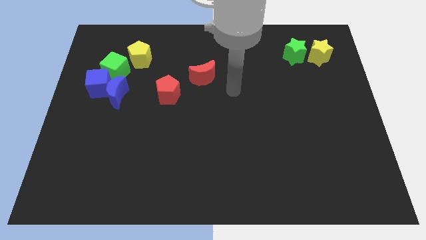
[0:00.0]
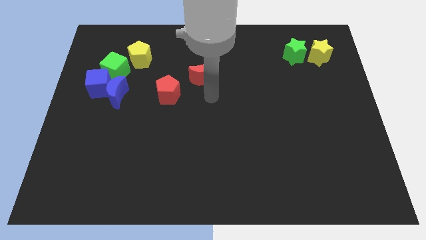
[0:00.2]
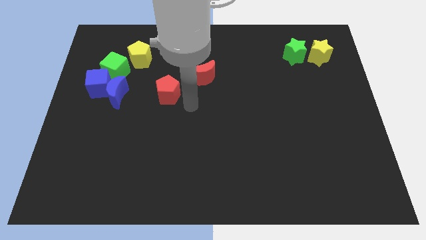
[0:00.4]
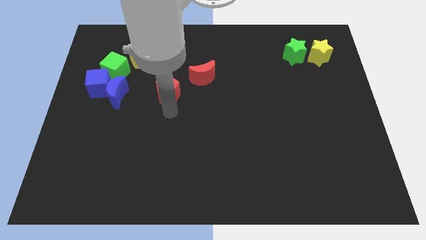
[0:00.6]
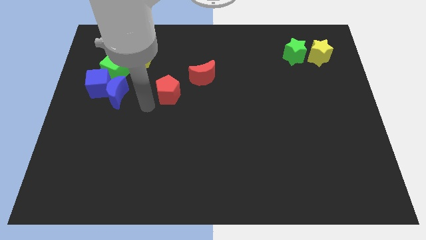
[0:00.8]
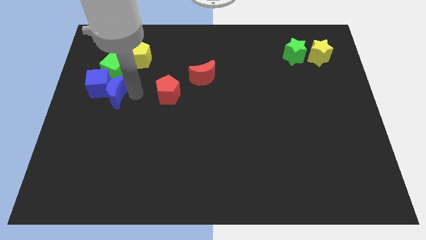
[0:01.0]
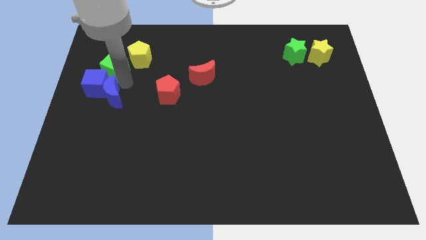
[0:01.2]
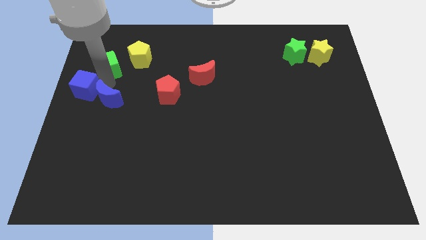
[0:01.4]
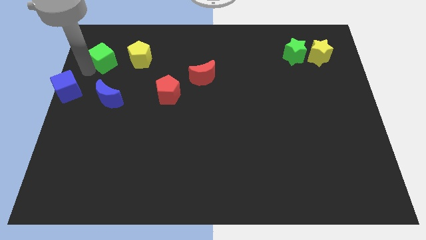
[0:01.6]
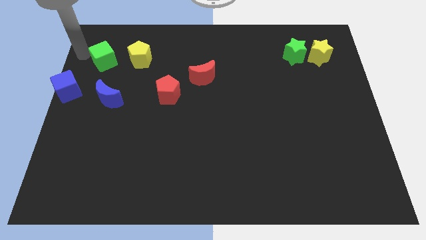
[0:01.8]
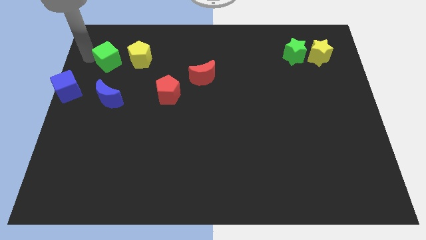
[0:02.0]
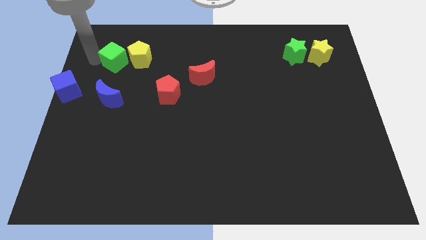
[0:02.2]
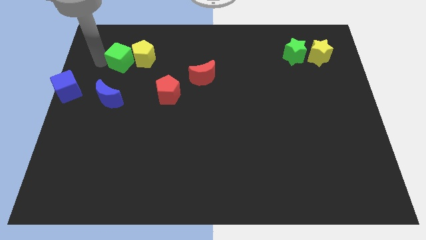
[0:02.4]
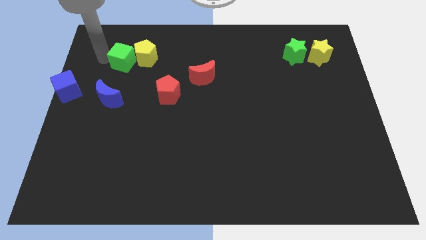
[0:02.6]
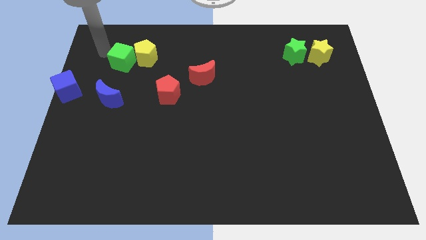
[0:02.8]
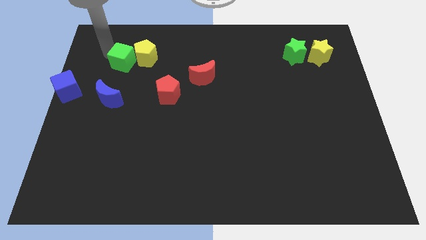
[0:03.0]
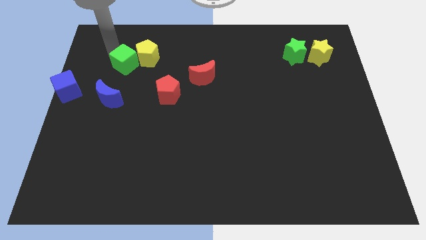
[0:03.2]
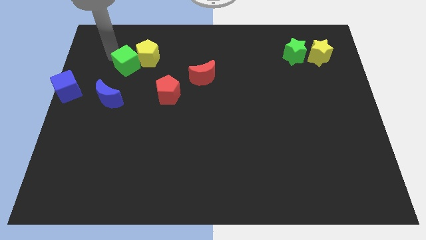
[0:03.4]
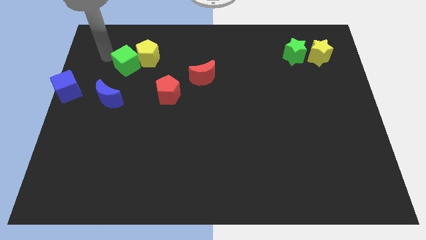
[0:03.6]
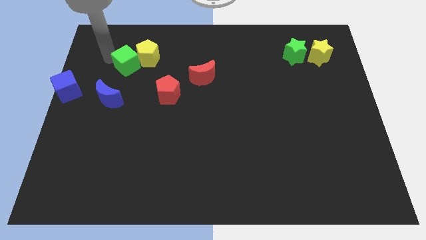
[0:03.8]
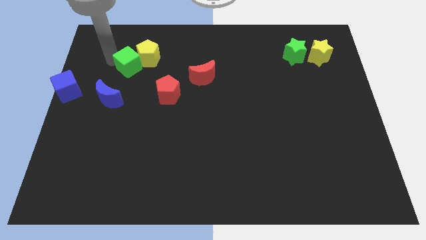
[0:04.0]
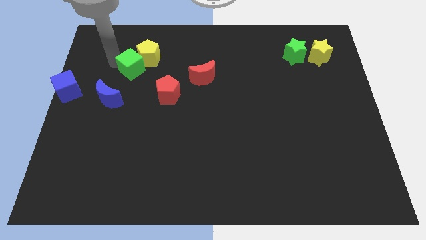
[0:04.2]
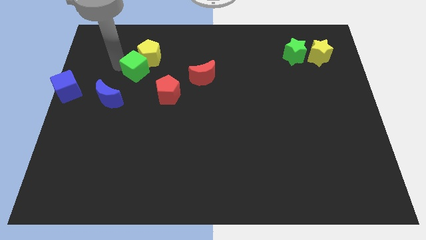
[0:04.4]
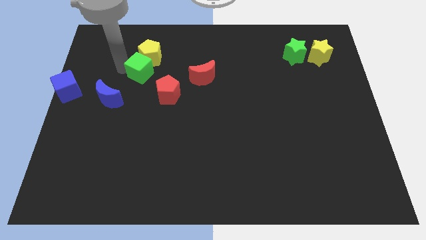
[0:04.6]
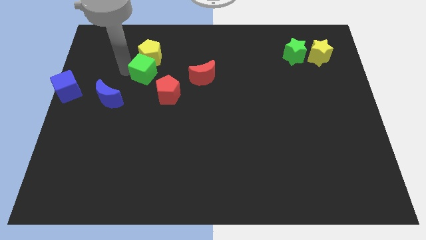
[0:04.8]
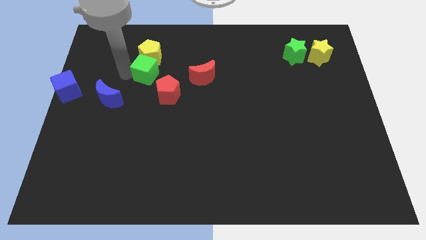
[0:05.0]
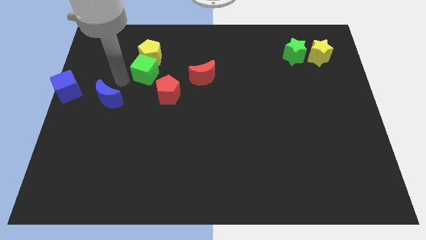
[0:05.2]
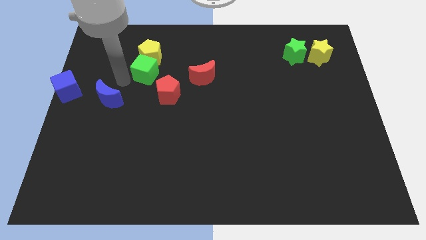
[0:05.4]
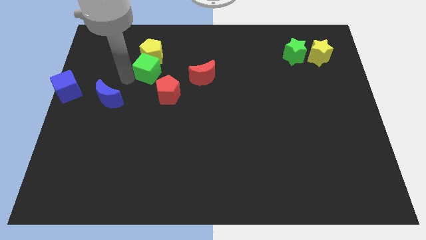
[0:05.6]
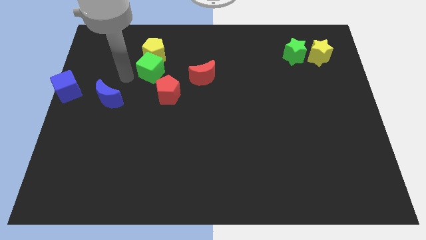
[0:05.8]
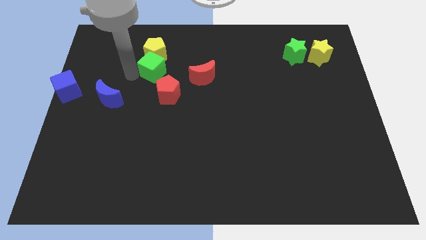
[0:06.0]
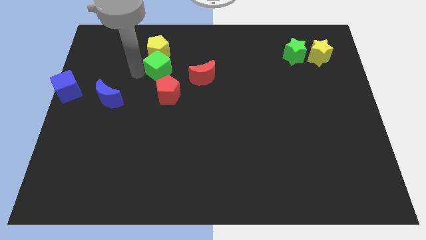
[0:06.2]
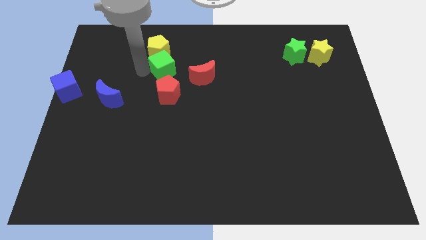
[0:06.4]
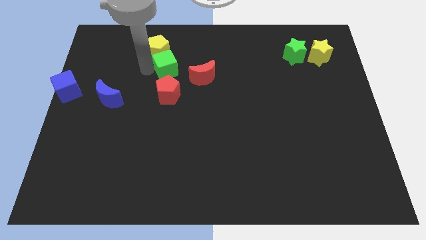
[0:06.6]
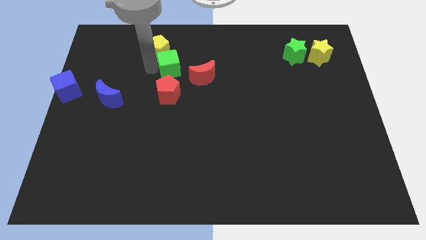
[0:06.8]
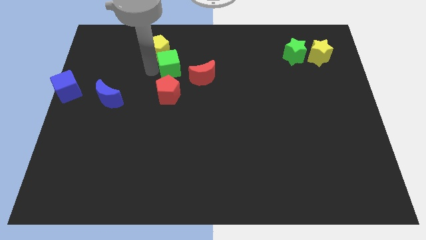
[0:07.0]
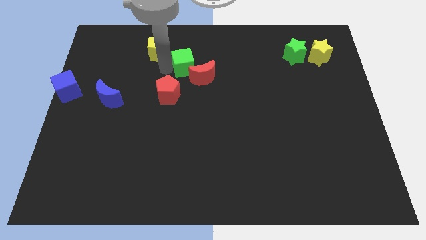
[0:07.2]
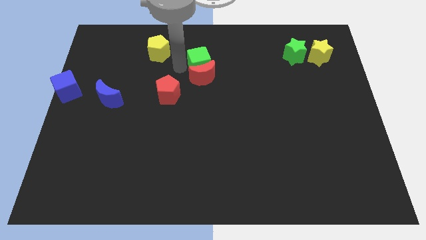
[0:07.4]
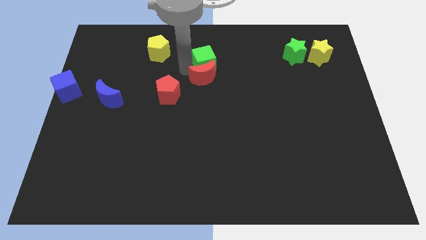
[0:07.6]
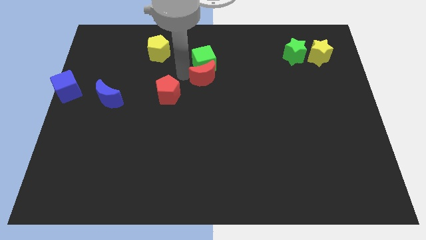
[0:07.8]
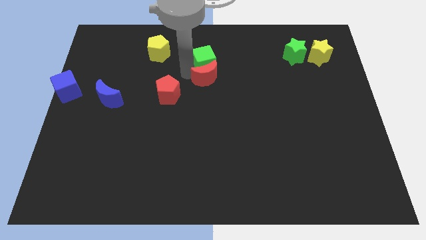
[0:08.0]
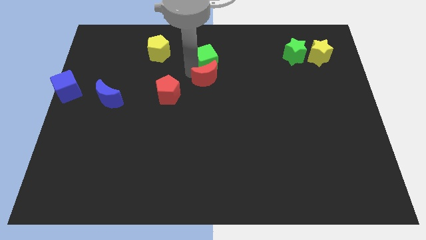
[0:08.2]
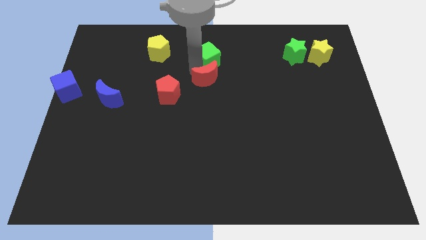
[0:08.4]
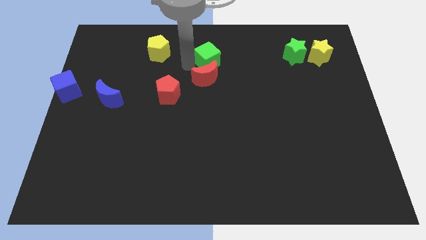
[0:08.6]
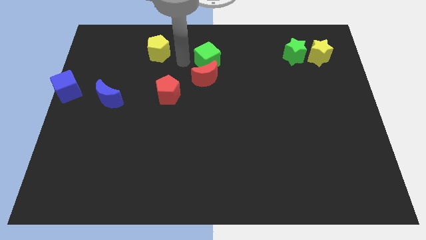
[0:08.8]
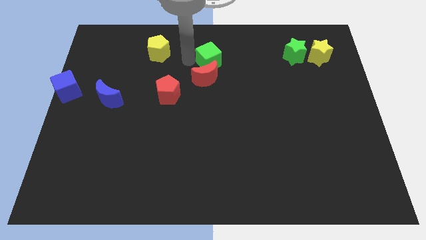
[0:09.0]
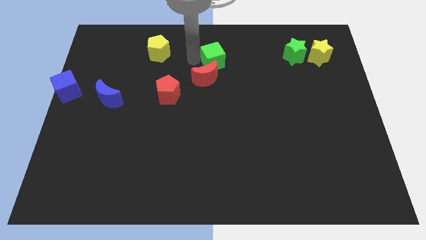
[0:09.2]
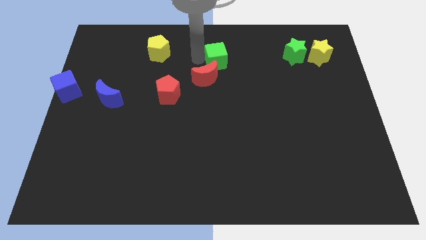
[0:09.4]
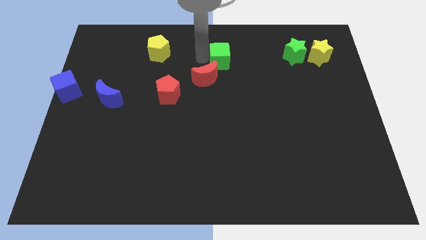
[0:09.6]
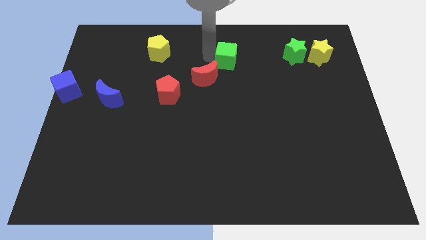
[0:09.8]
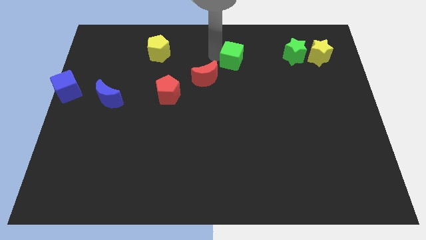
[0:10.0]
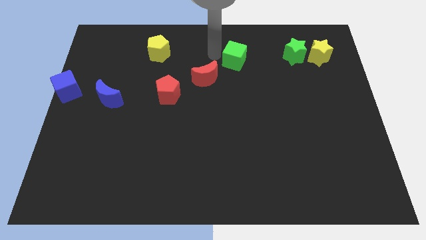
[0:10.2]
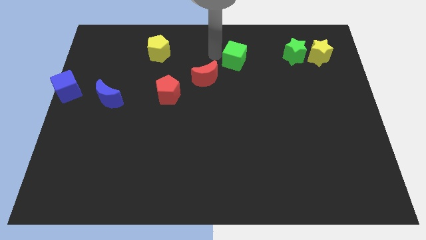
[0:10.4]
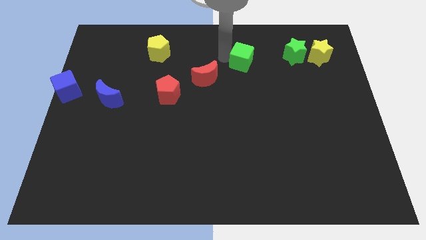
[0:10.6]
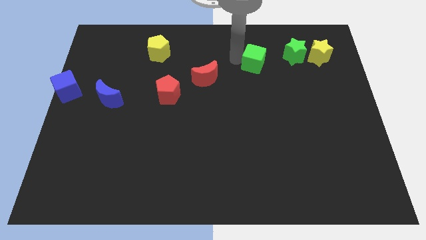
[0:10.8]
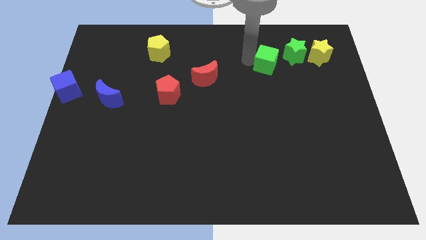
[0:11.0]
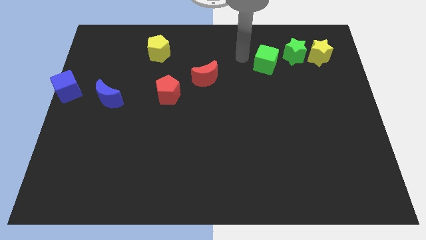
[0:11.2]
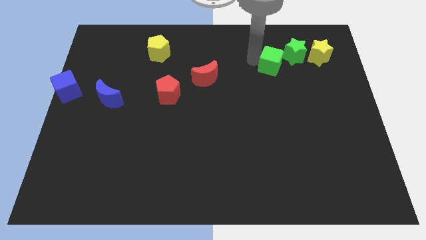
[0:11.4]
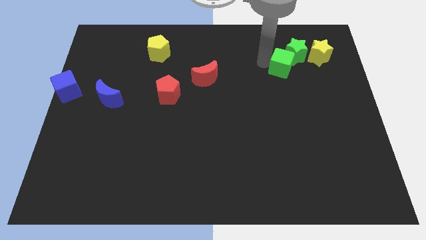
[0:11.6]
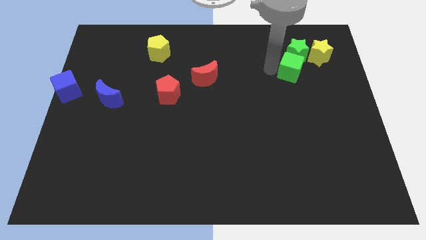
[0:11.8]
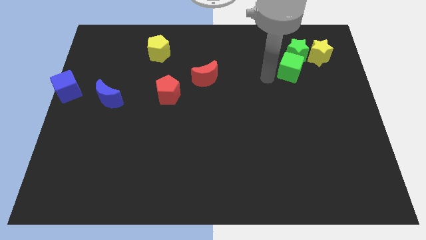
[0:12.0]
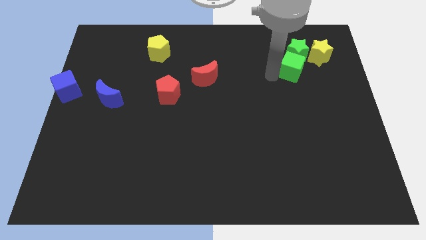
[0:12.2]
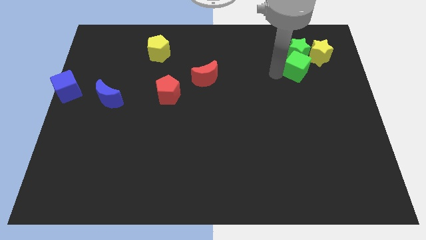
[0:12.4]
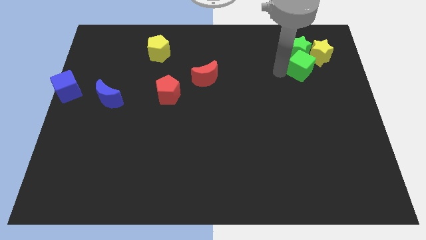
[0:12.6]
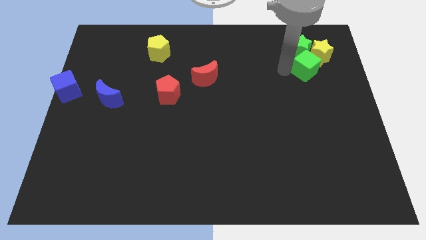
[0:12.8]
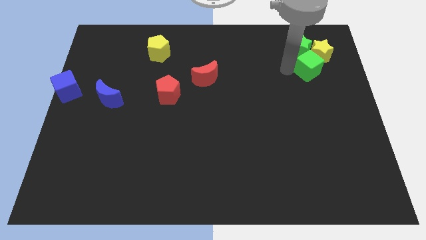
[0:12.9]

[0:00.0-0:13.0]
put the green cube to the yellow star
